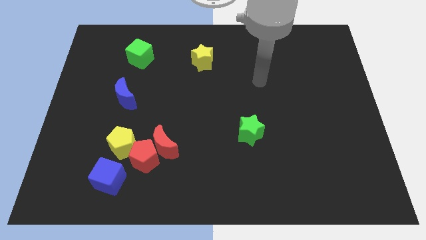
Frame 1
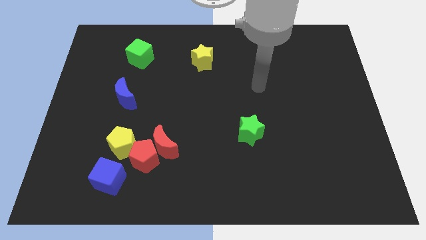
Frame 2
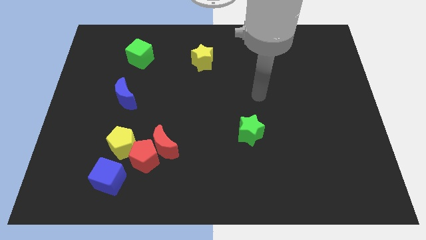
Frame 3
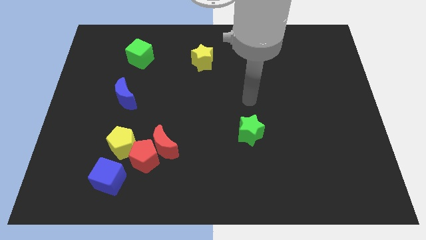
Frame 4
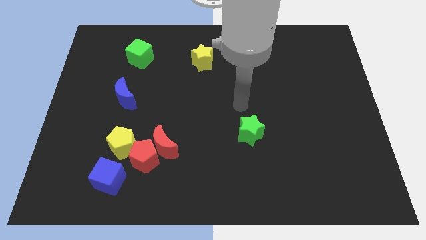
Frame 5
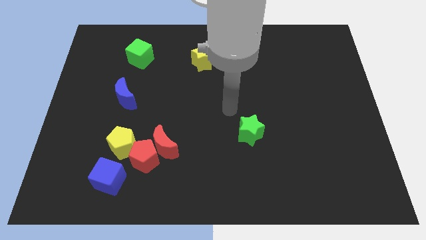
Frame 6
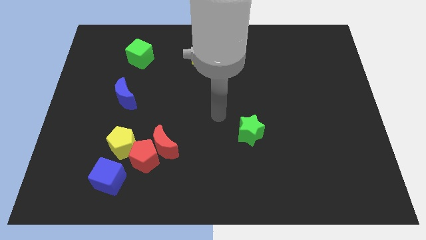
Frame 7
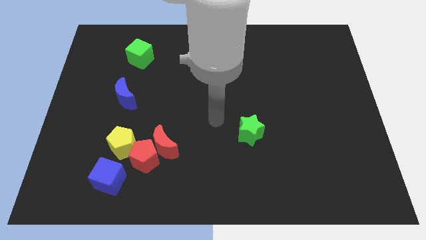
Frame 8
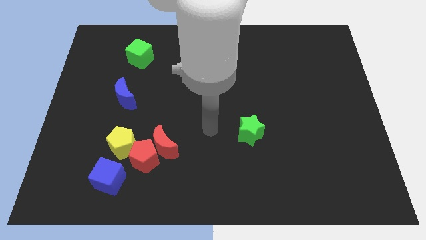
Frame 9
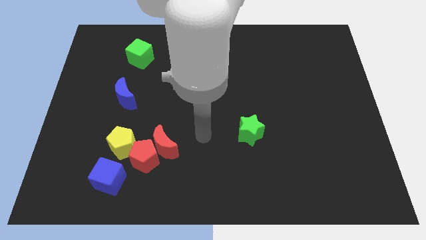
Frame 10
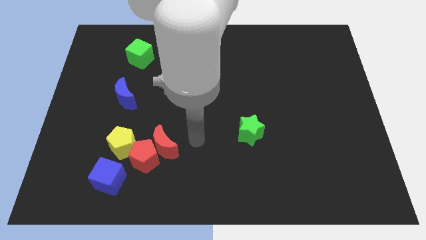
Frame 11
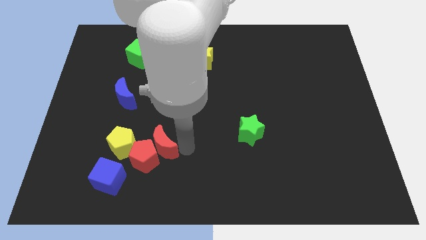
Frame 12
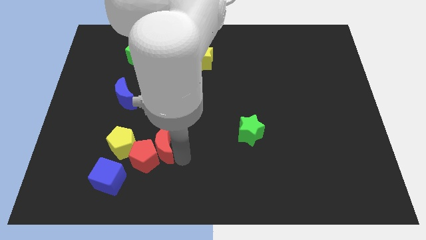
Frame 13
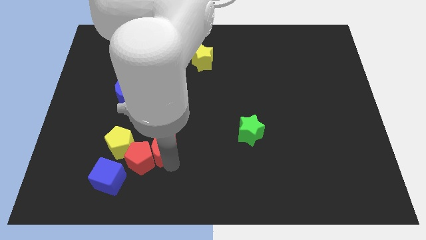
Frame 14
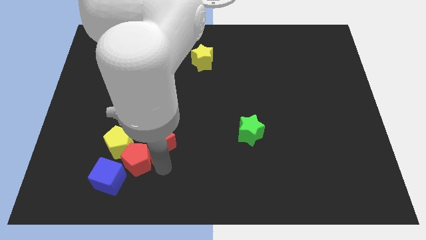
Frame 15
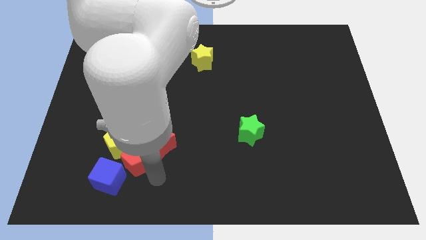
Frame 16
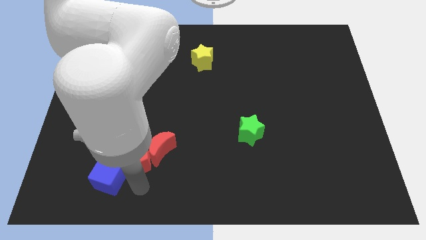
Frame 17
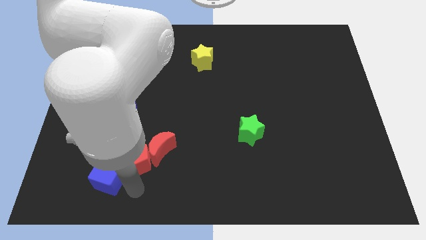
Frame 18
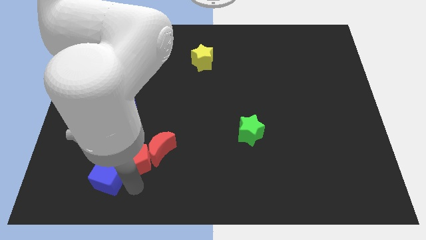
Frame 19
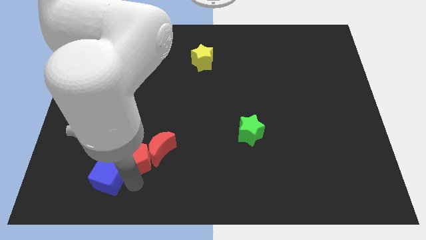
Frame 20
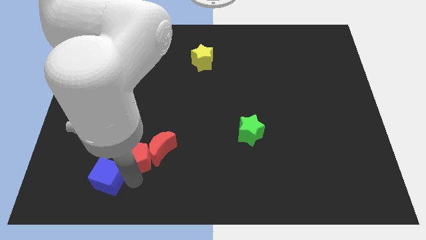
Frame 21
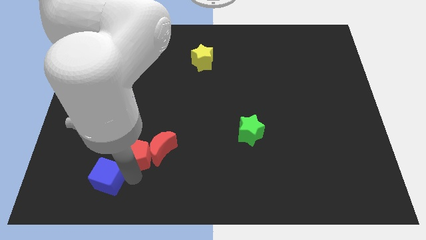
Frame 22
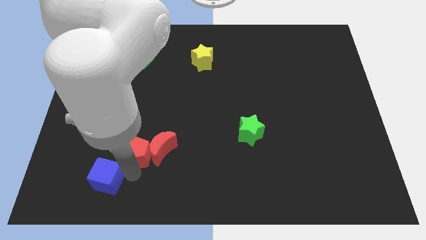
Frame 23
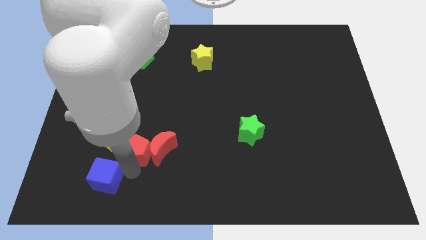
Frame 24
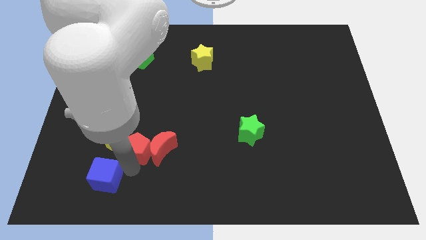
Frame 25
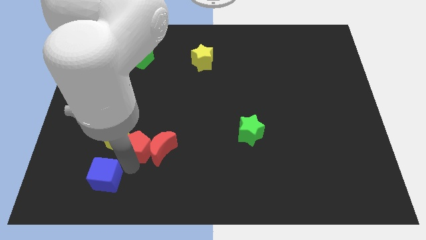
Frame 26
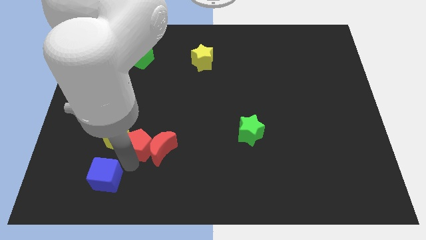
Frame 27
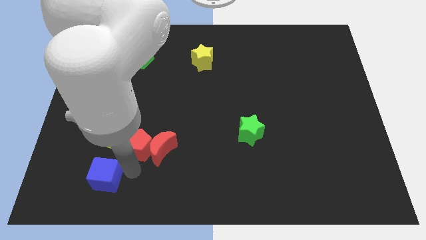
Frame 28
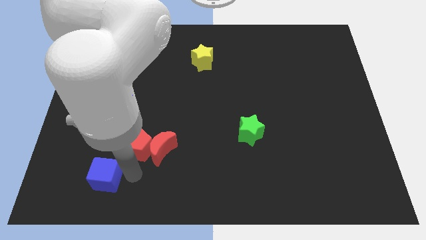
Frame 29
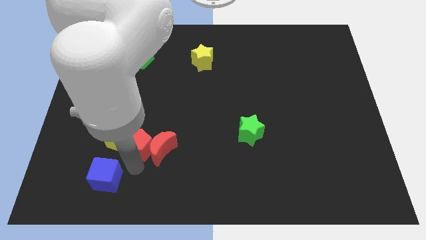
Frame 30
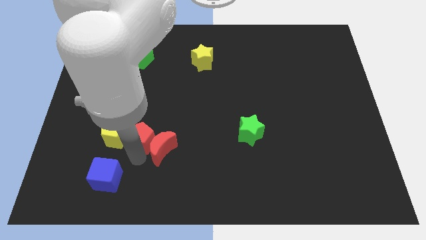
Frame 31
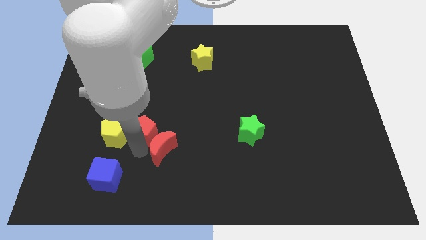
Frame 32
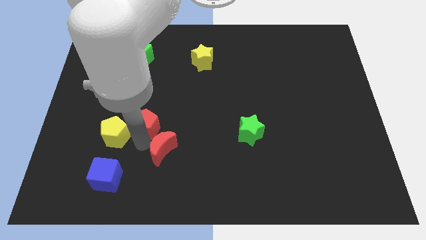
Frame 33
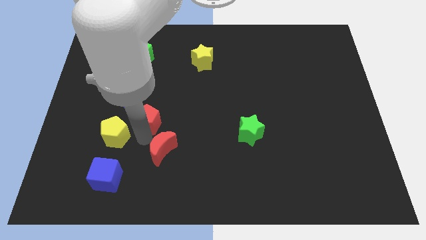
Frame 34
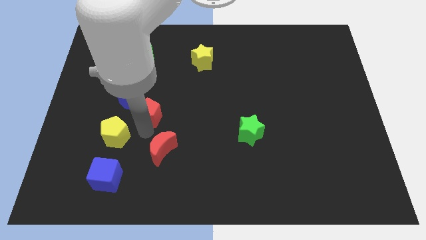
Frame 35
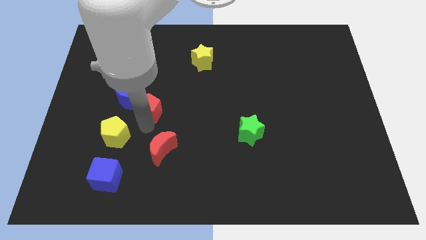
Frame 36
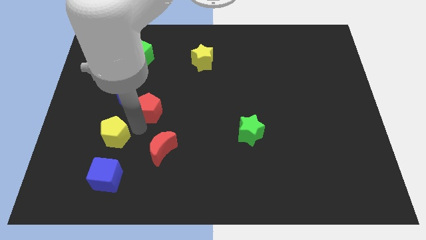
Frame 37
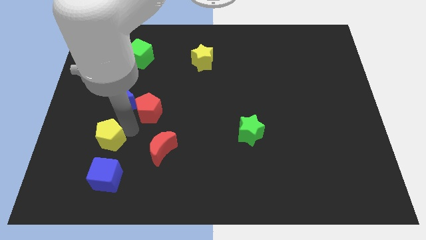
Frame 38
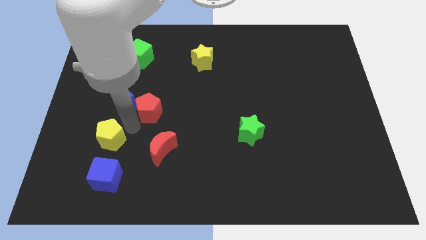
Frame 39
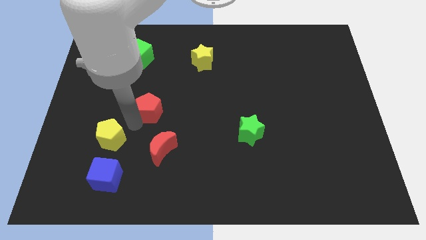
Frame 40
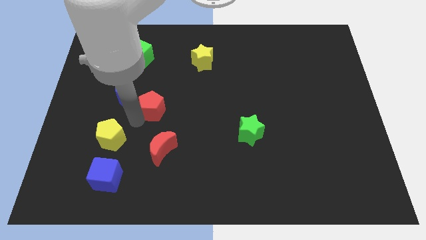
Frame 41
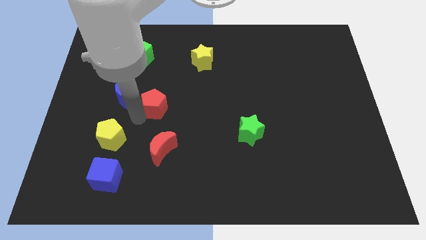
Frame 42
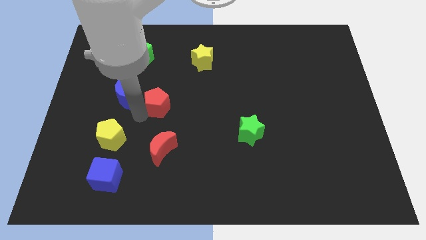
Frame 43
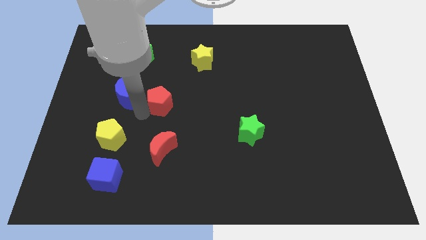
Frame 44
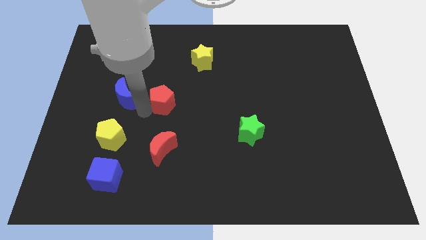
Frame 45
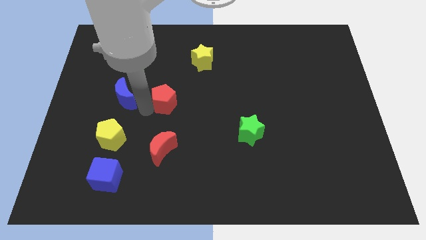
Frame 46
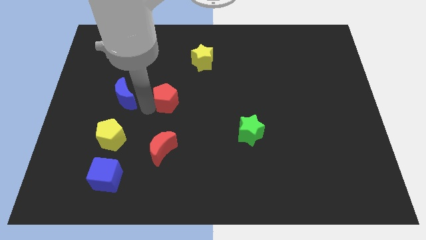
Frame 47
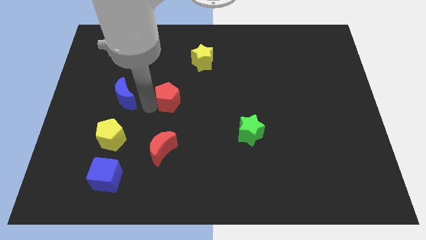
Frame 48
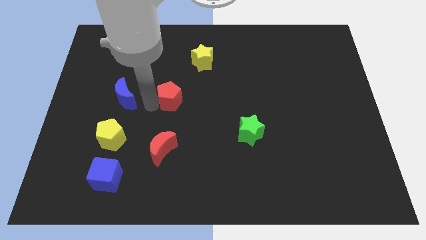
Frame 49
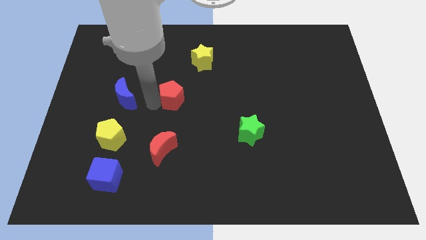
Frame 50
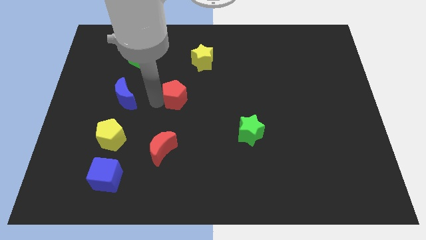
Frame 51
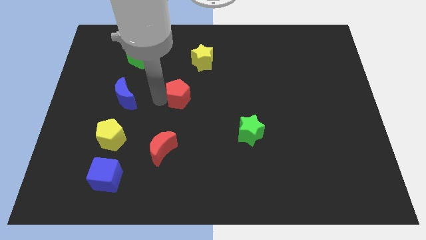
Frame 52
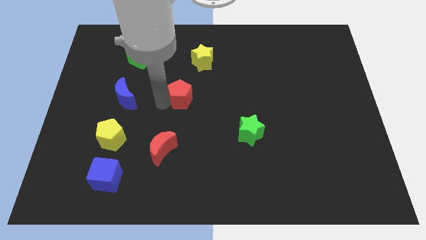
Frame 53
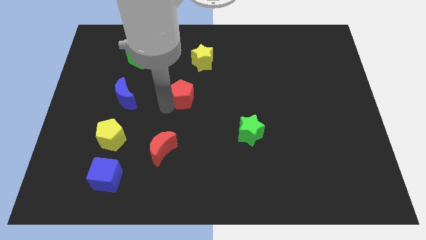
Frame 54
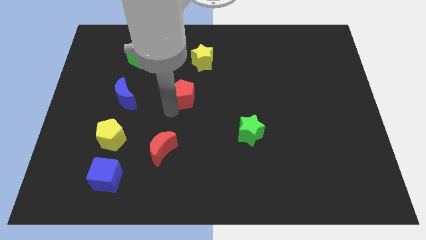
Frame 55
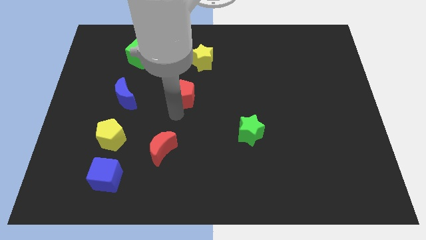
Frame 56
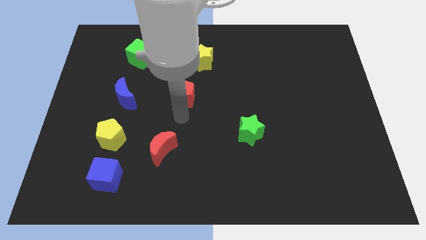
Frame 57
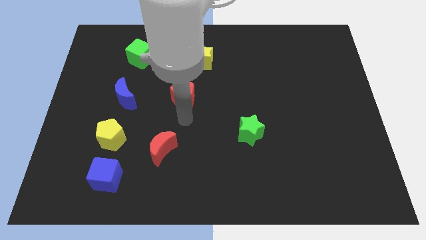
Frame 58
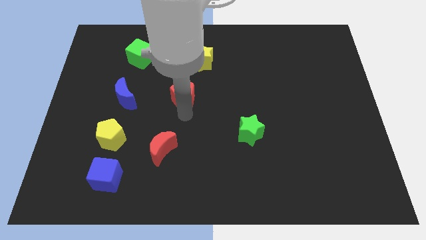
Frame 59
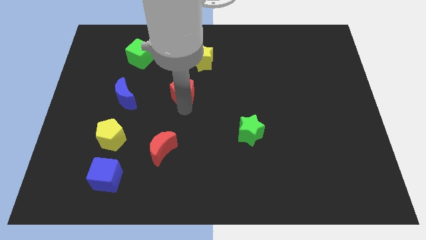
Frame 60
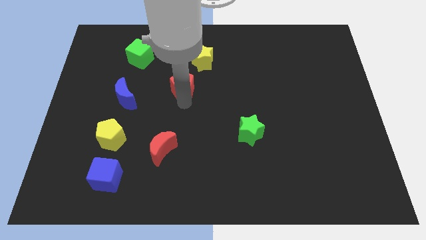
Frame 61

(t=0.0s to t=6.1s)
push the red pentagon diagonally down and to the left of the yellow star
